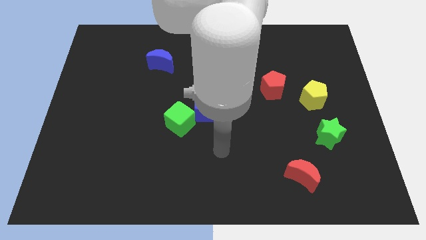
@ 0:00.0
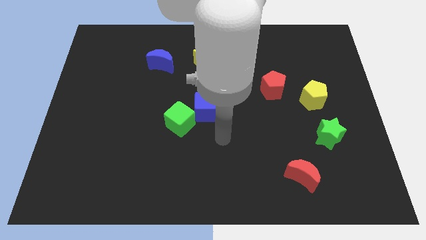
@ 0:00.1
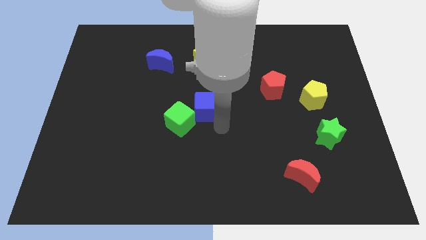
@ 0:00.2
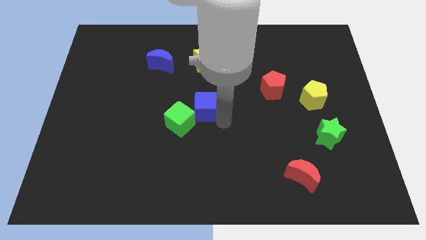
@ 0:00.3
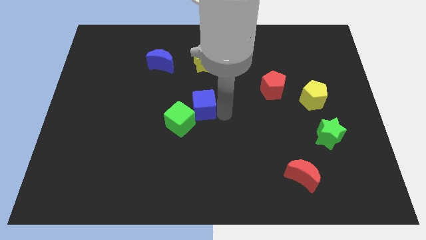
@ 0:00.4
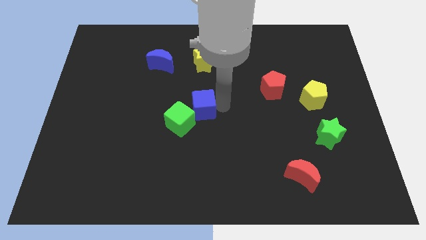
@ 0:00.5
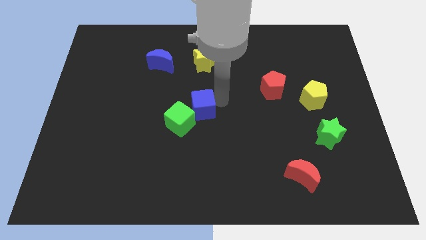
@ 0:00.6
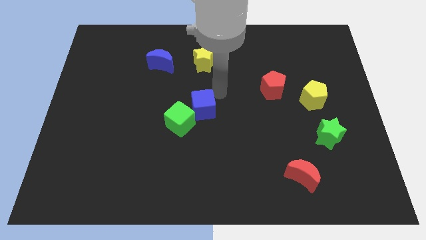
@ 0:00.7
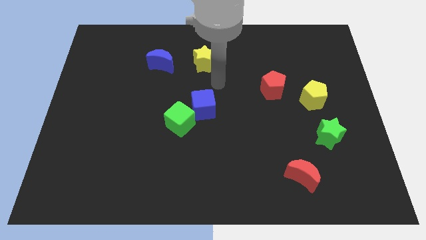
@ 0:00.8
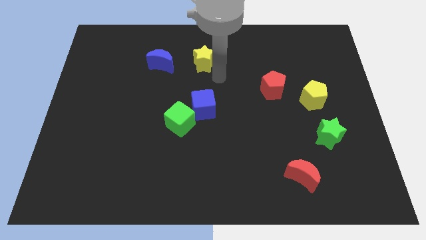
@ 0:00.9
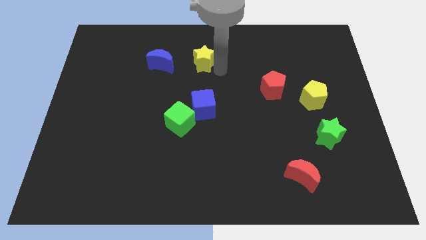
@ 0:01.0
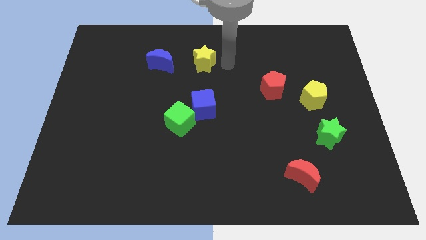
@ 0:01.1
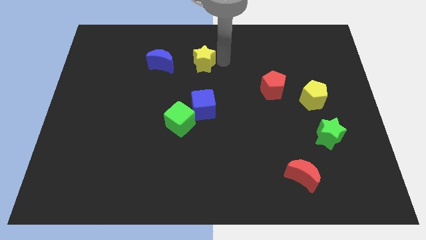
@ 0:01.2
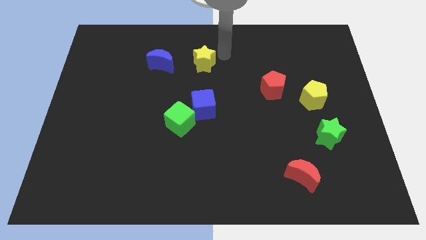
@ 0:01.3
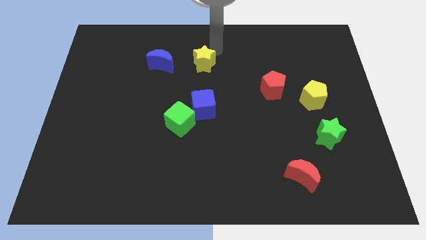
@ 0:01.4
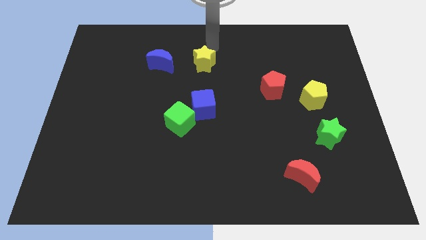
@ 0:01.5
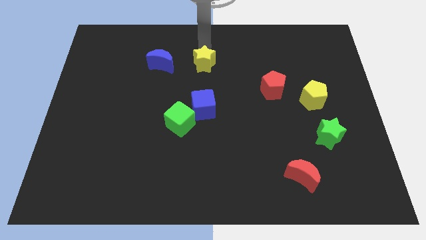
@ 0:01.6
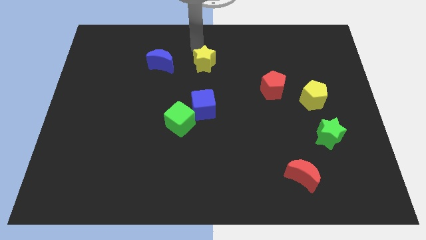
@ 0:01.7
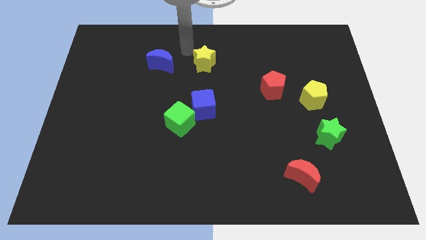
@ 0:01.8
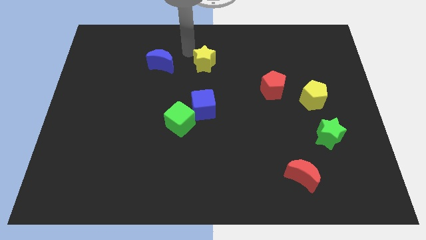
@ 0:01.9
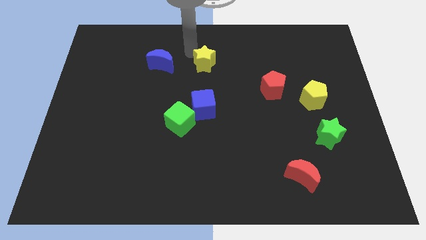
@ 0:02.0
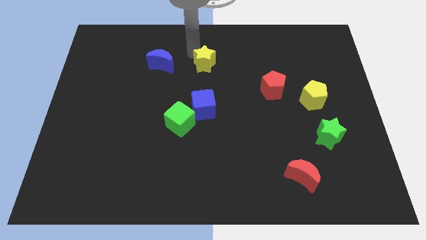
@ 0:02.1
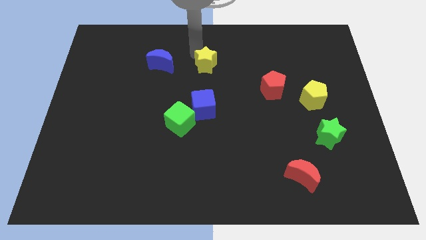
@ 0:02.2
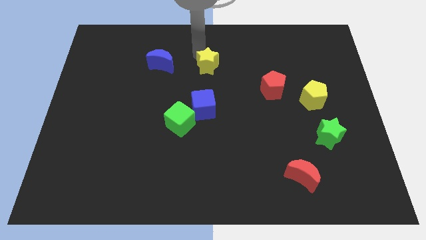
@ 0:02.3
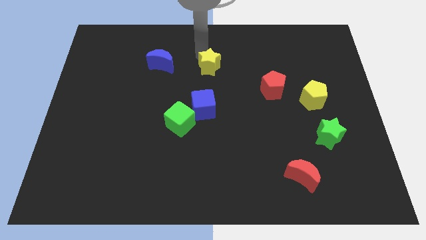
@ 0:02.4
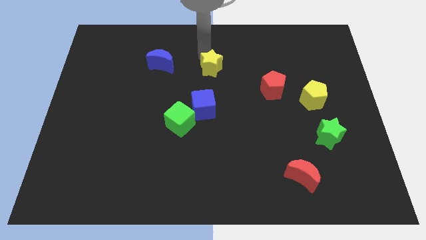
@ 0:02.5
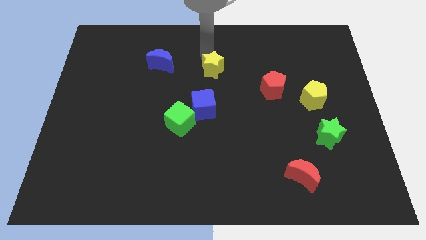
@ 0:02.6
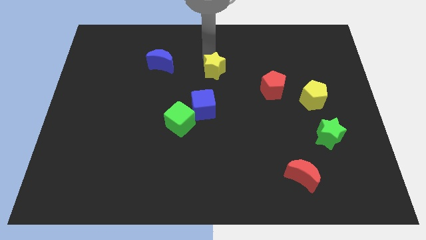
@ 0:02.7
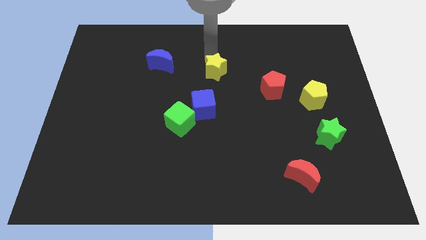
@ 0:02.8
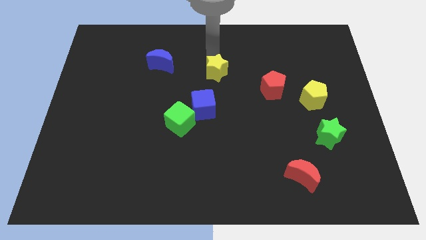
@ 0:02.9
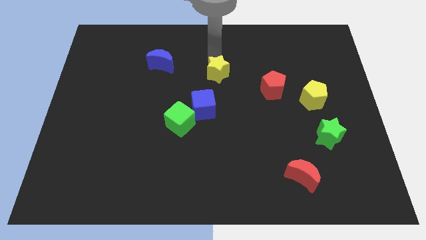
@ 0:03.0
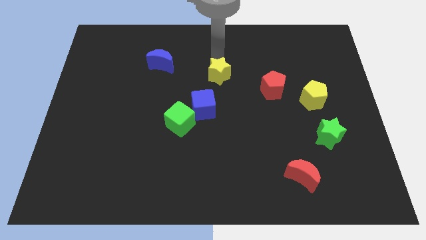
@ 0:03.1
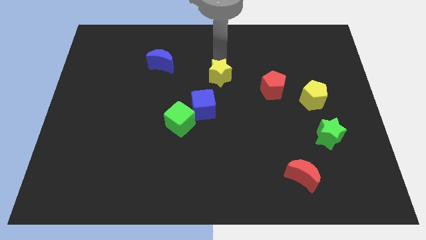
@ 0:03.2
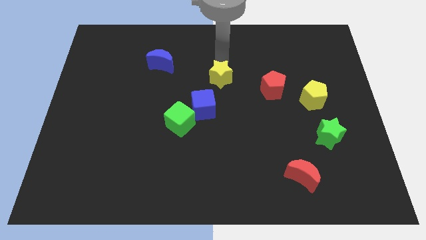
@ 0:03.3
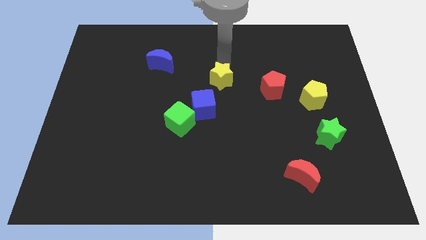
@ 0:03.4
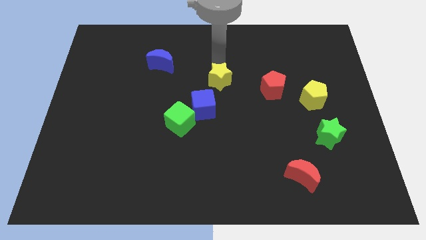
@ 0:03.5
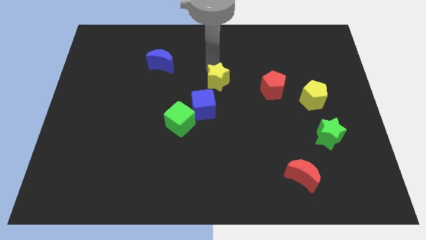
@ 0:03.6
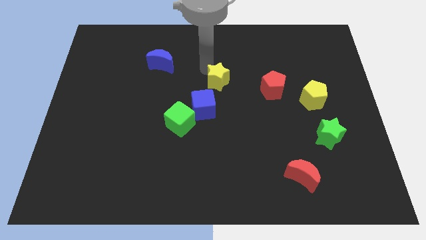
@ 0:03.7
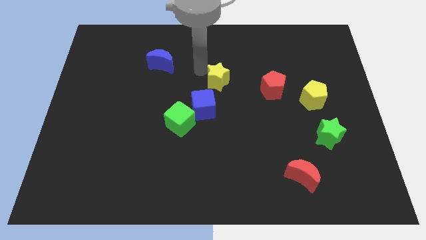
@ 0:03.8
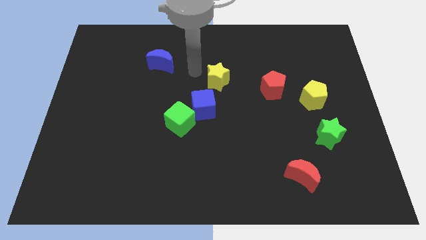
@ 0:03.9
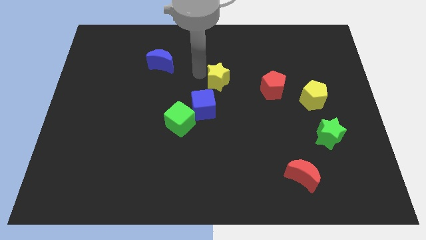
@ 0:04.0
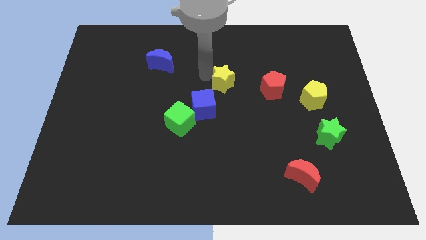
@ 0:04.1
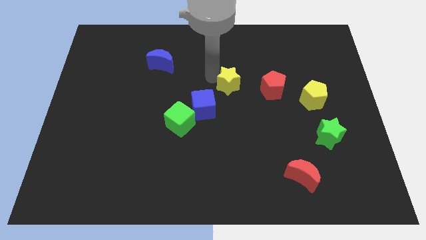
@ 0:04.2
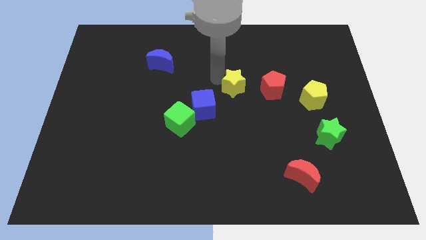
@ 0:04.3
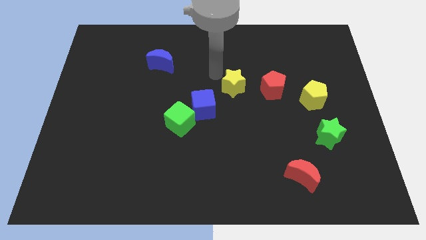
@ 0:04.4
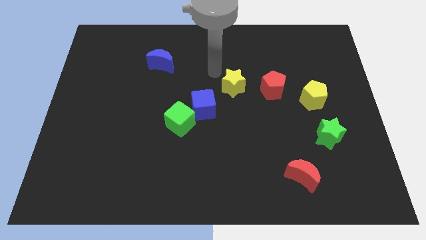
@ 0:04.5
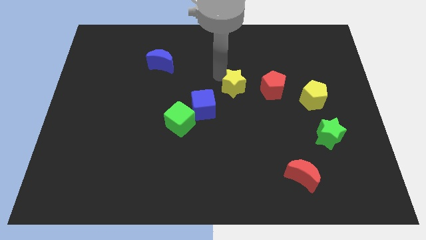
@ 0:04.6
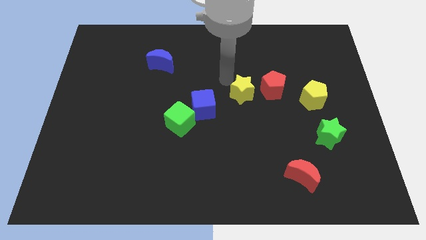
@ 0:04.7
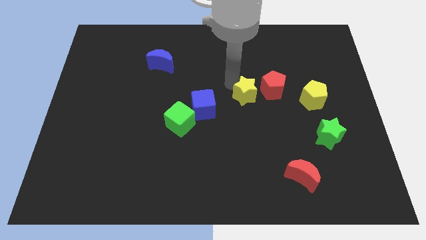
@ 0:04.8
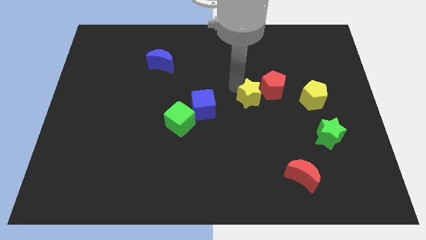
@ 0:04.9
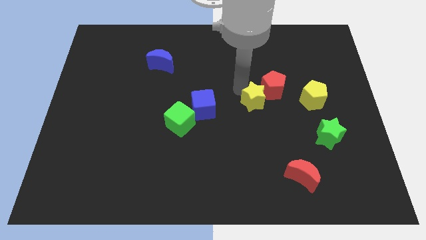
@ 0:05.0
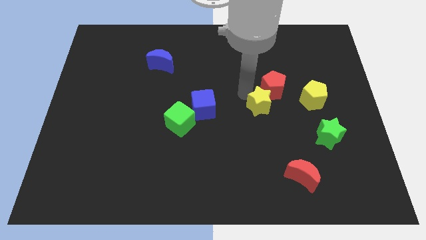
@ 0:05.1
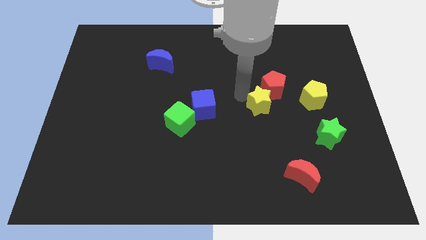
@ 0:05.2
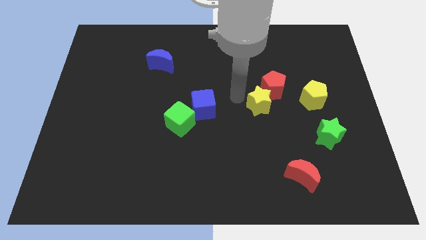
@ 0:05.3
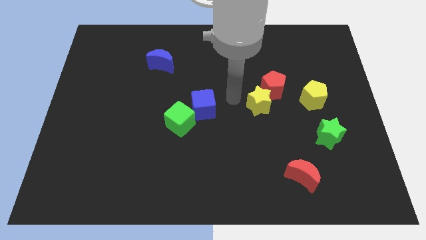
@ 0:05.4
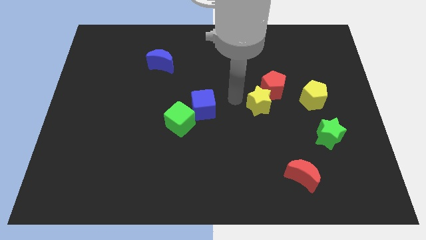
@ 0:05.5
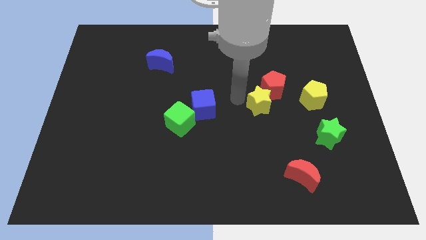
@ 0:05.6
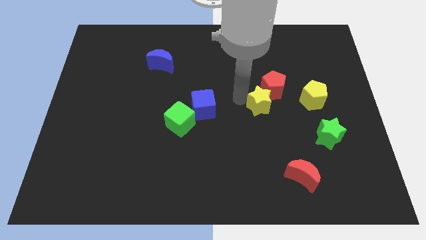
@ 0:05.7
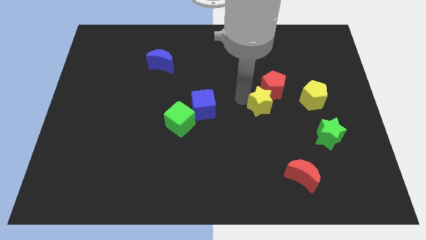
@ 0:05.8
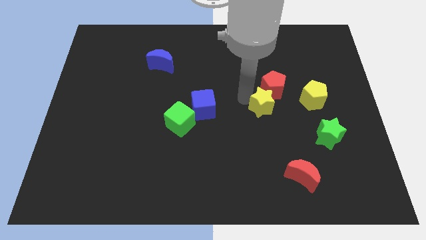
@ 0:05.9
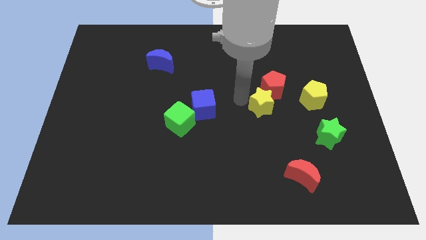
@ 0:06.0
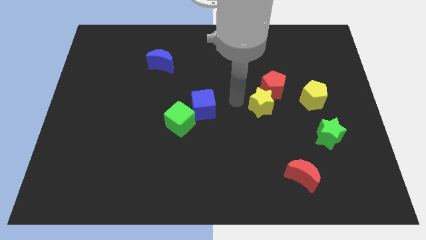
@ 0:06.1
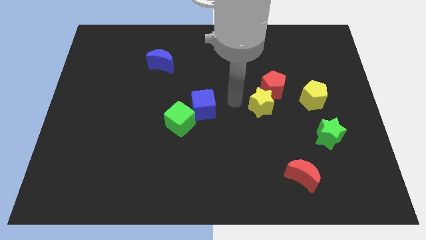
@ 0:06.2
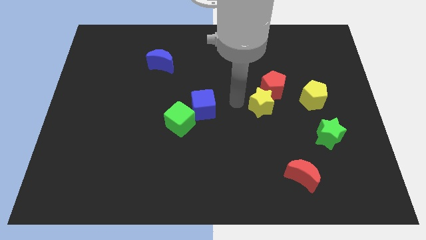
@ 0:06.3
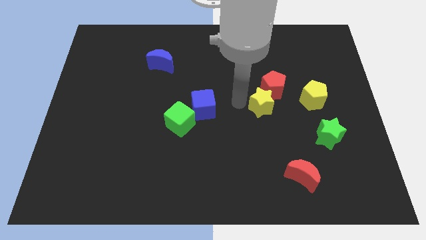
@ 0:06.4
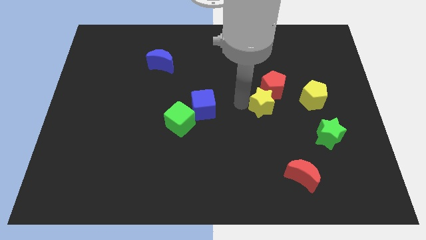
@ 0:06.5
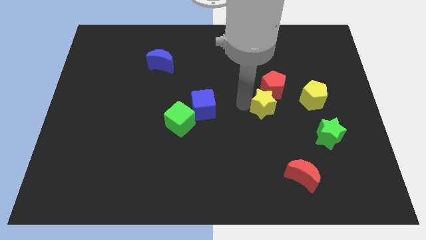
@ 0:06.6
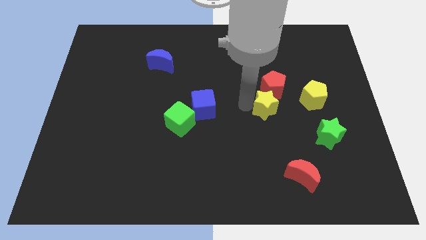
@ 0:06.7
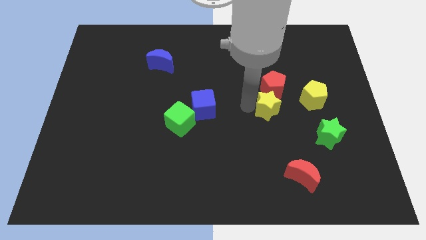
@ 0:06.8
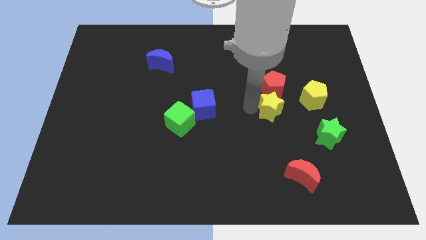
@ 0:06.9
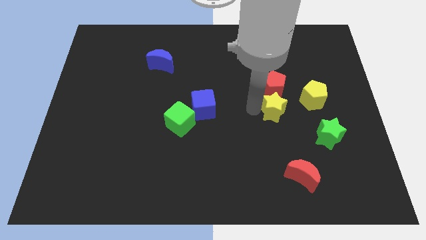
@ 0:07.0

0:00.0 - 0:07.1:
push the yellow star diagonally down and to the right of the red pentagon
